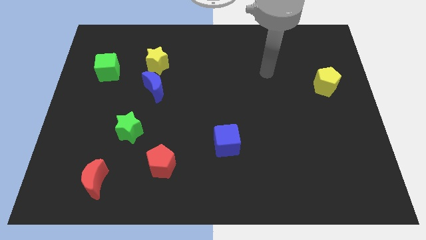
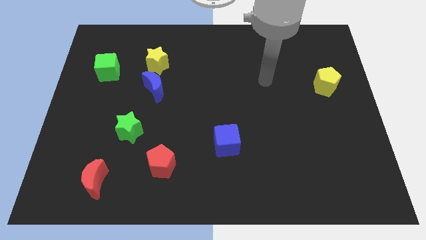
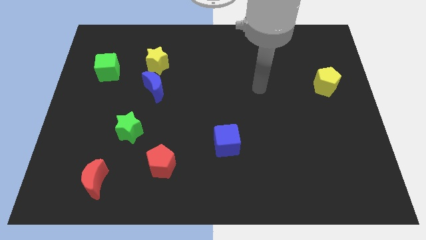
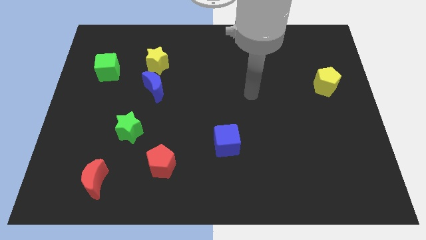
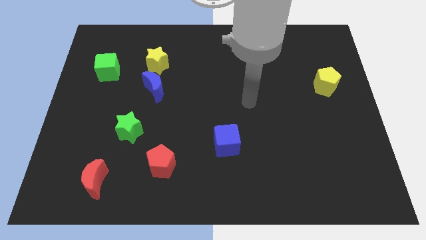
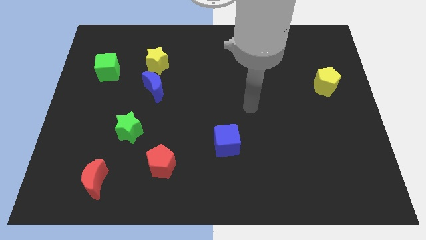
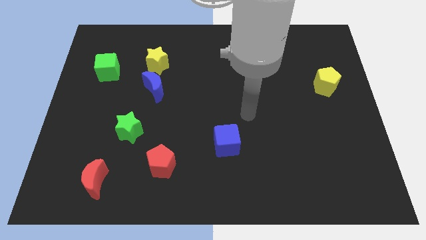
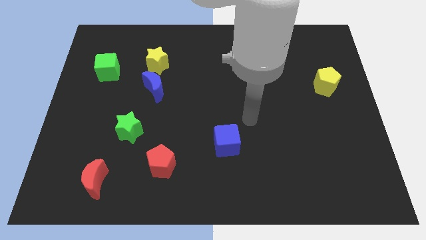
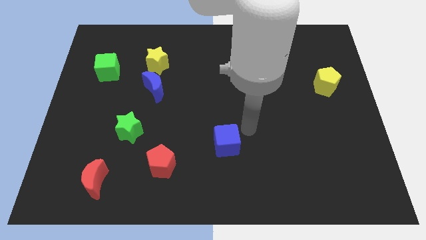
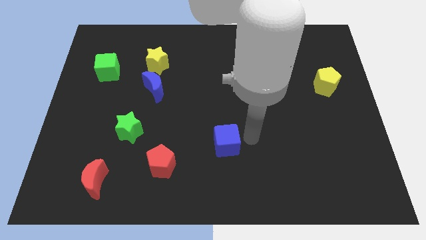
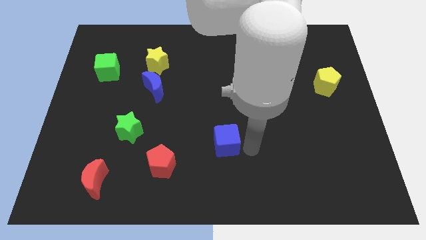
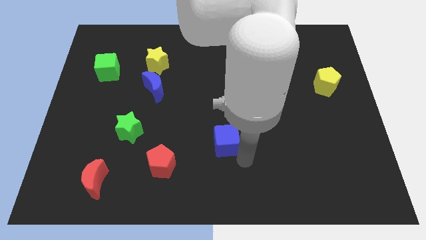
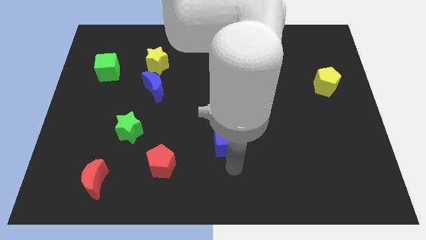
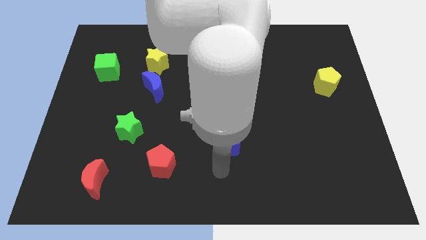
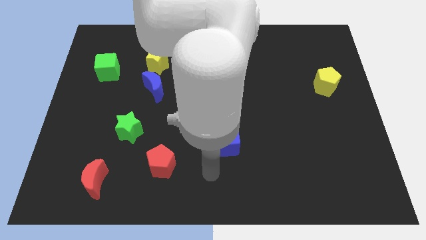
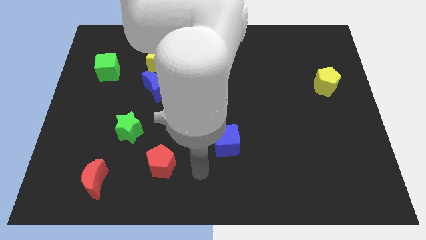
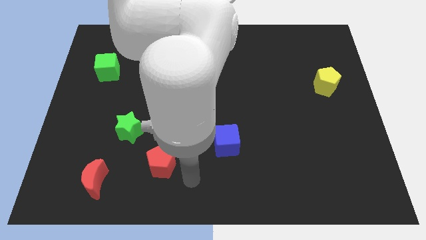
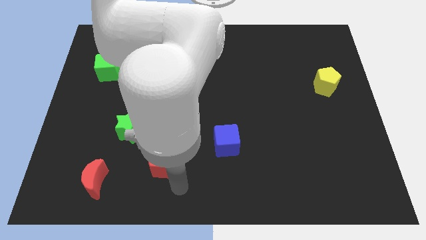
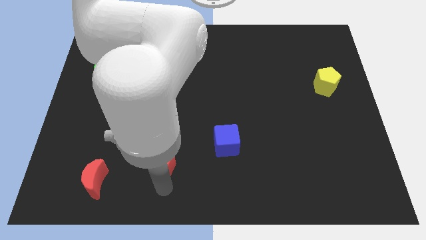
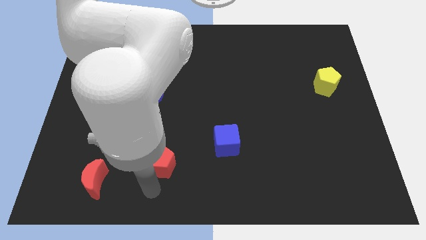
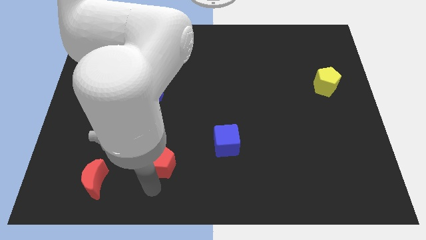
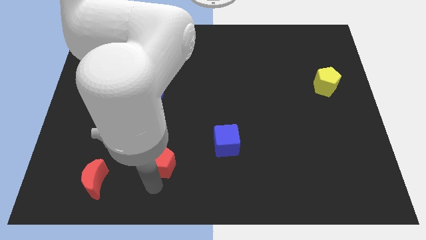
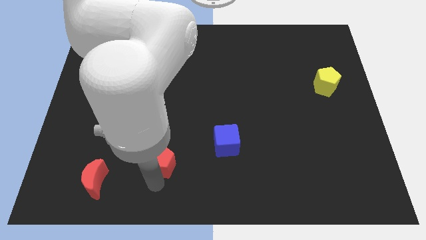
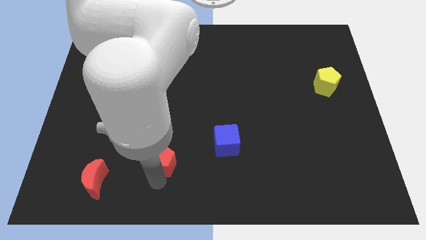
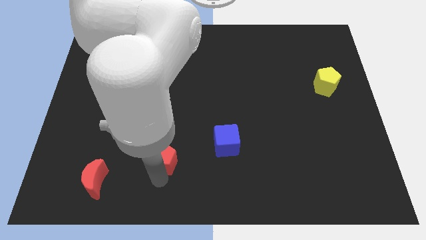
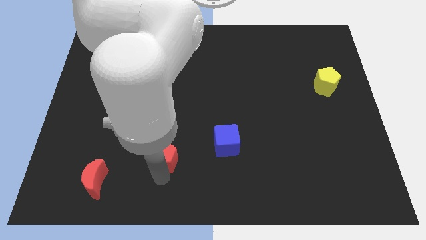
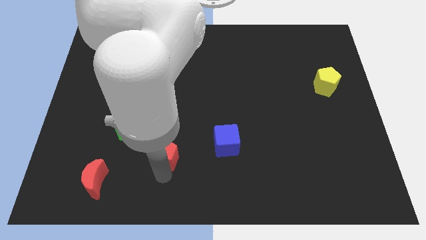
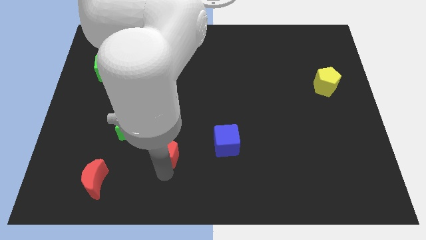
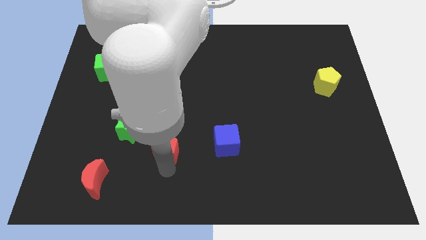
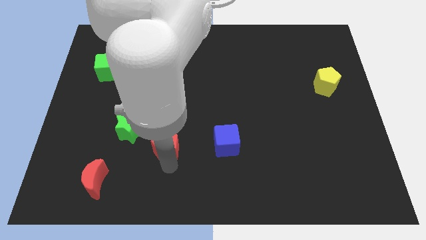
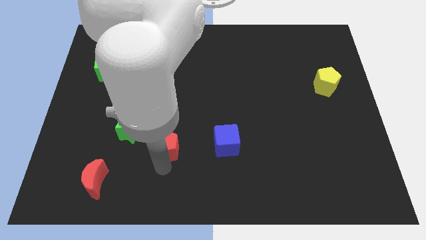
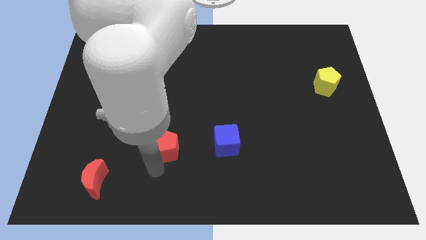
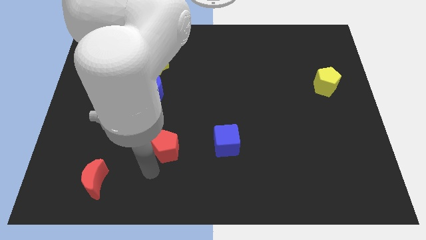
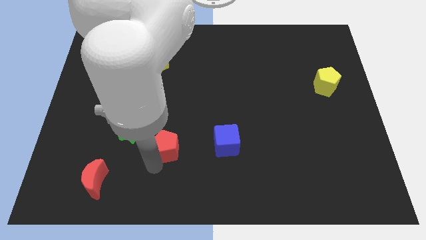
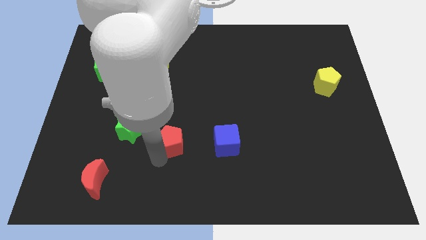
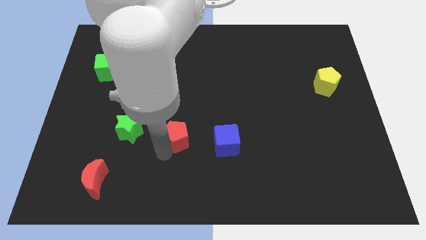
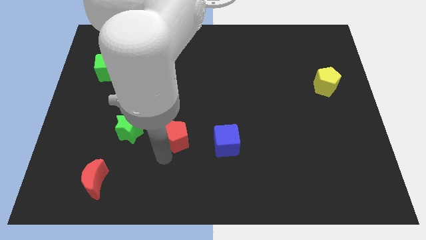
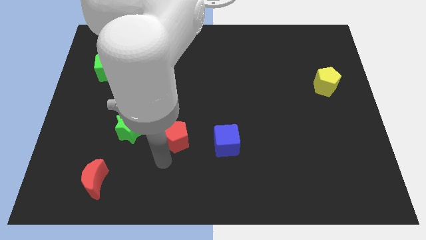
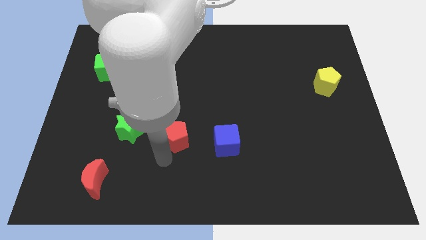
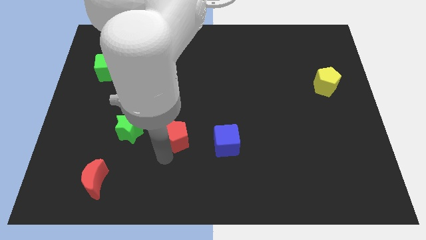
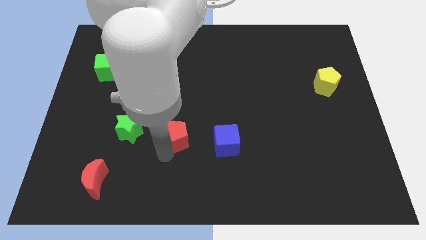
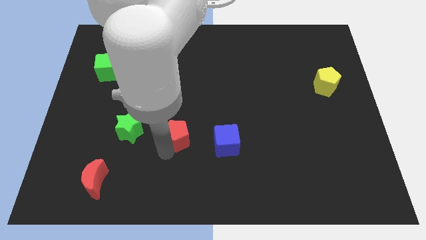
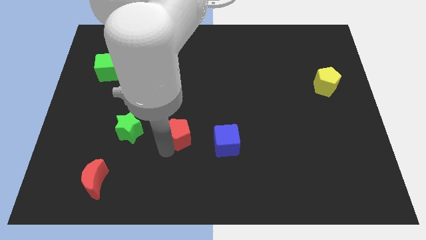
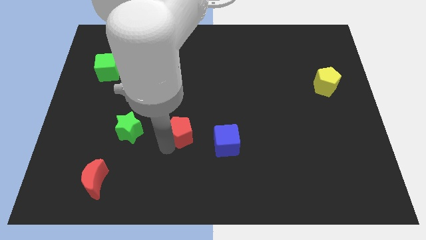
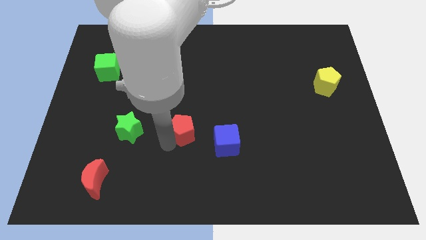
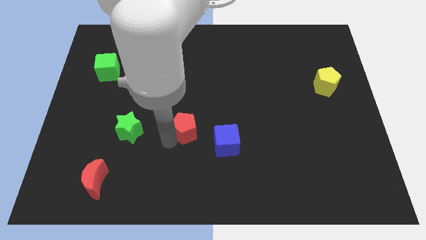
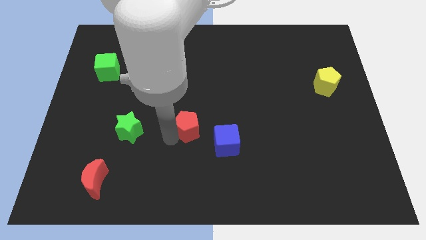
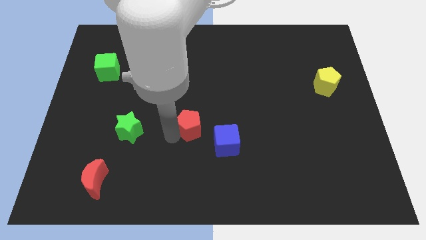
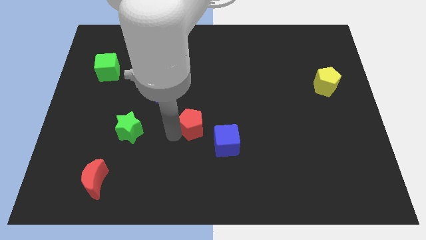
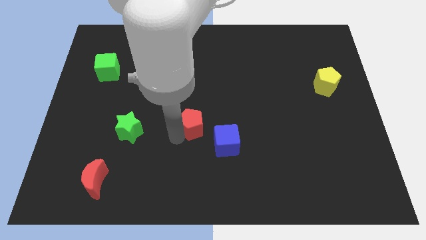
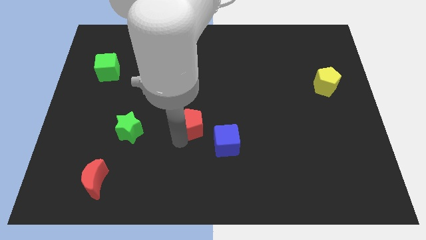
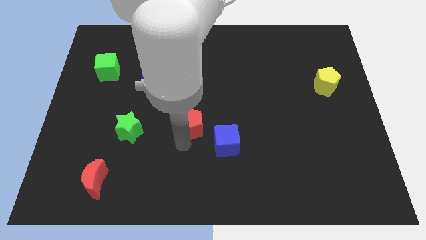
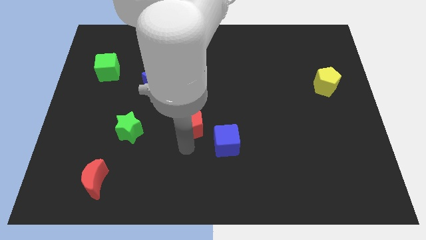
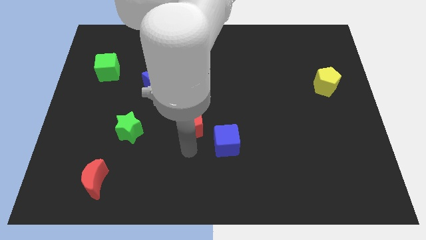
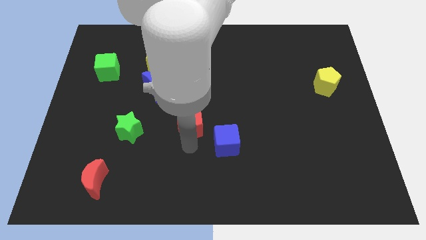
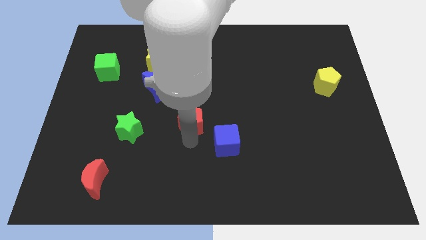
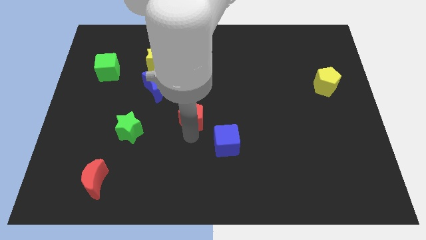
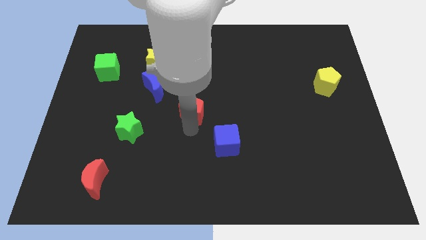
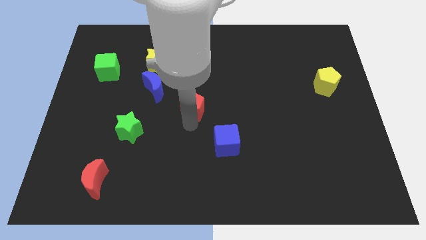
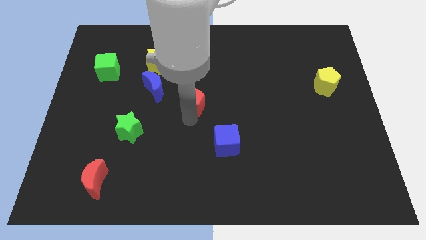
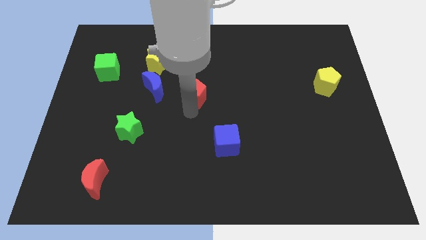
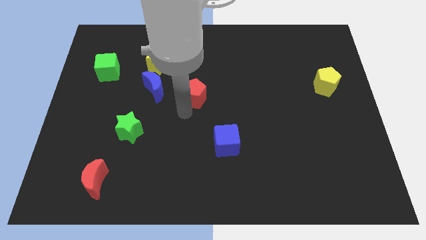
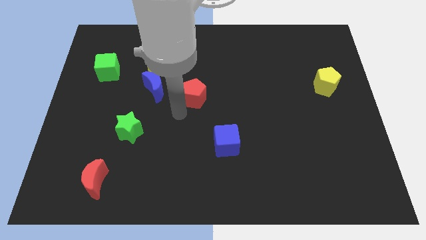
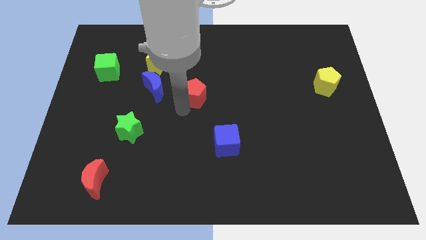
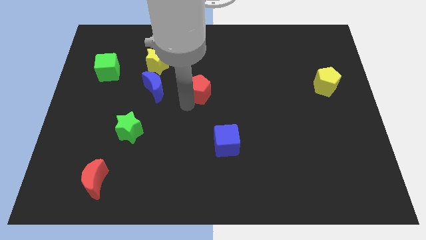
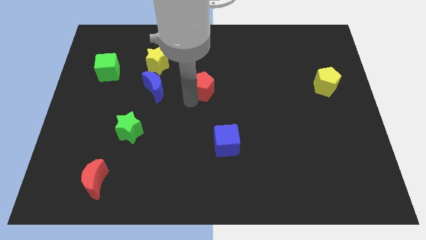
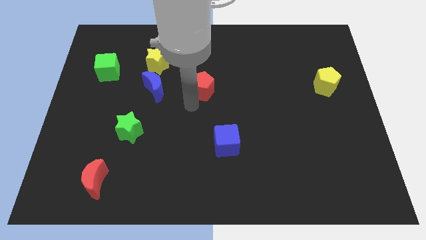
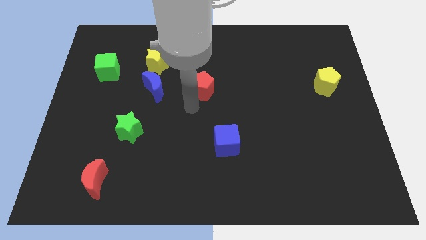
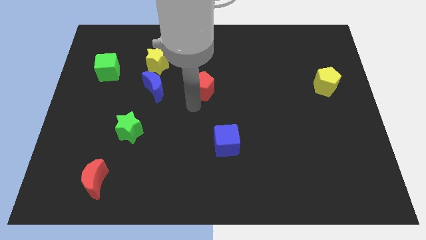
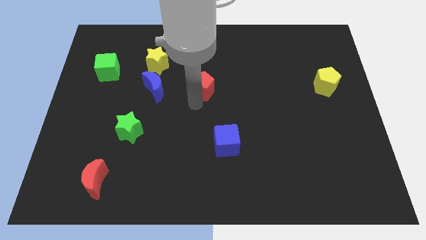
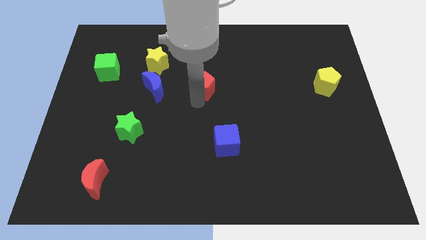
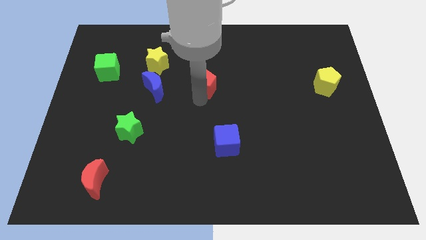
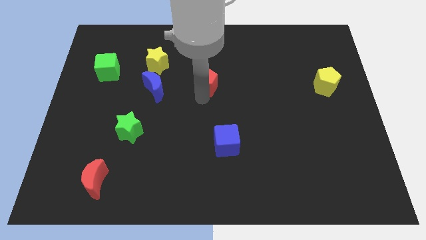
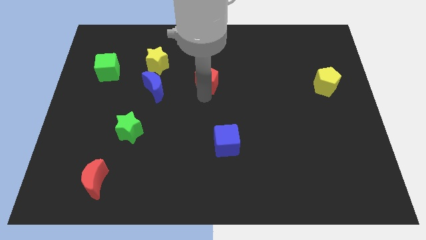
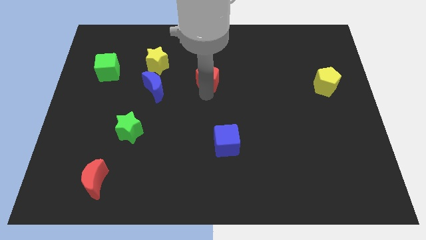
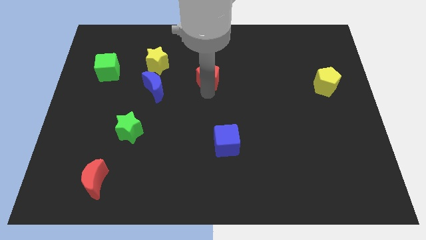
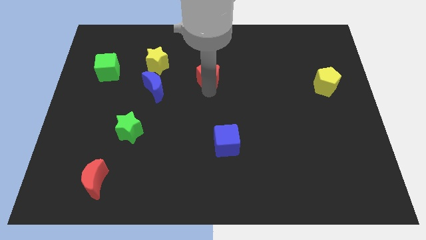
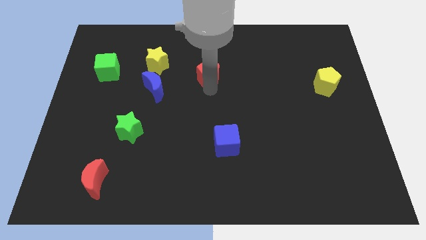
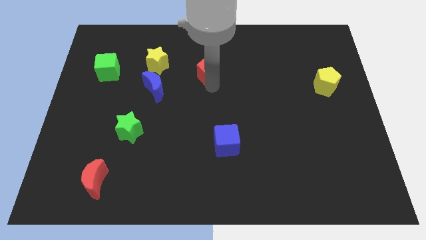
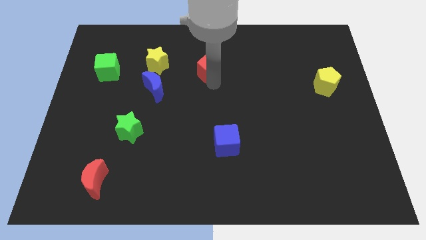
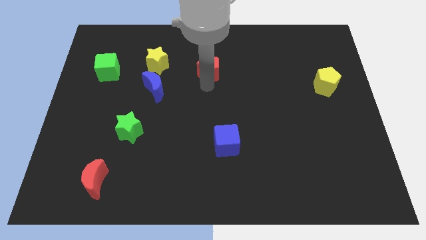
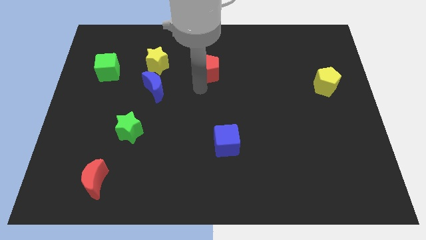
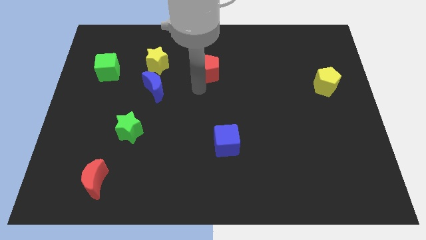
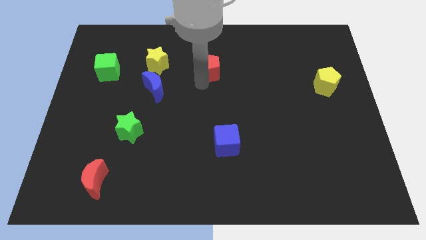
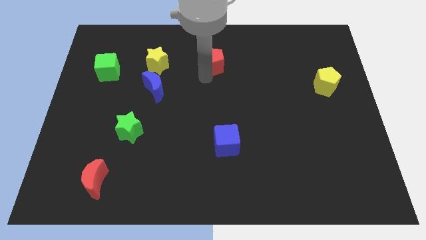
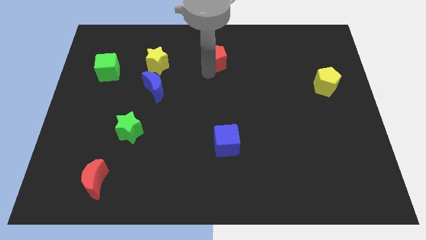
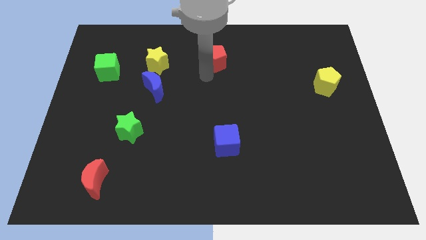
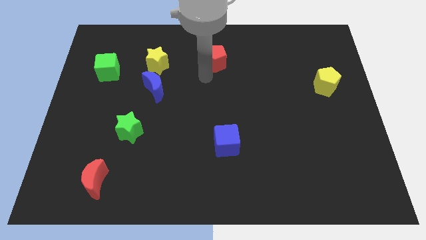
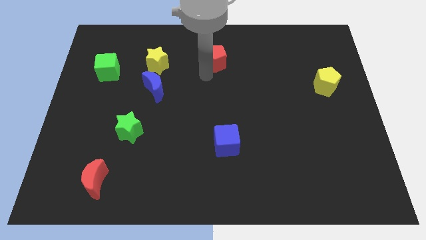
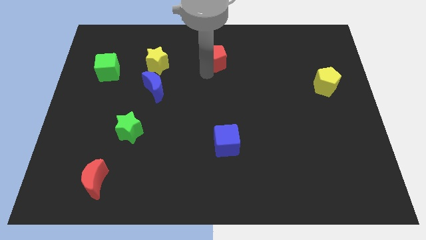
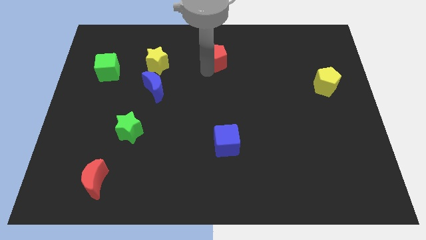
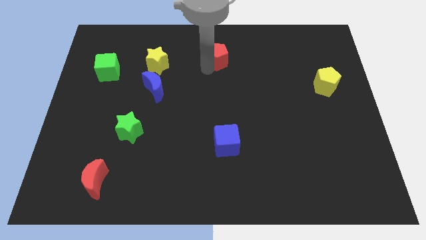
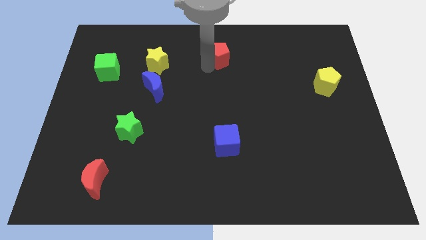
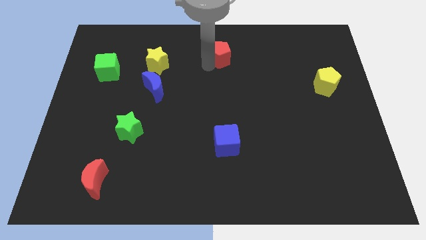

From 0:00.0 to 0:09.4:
move the red pentagon to the top
